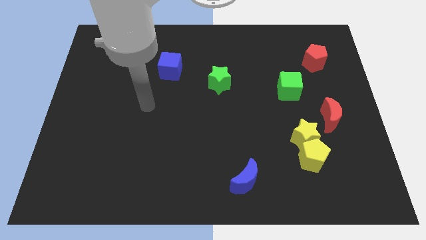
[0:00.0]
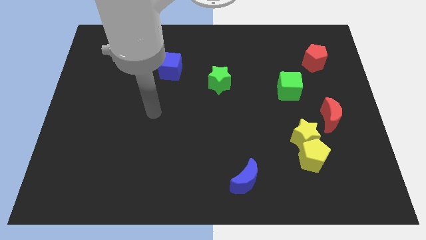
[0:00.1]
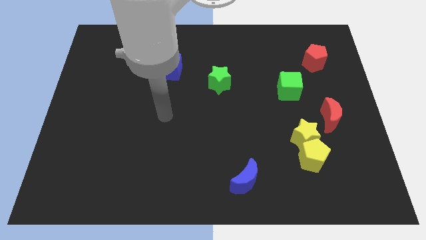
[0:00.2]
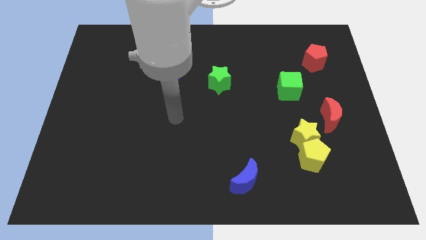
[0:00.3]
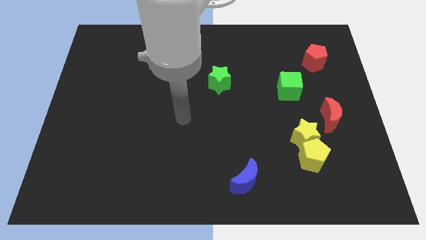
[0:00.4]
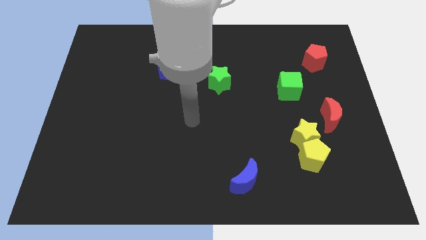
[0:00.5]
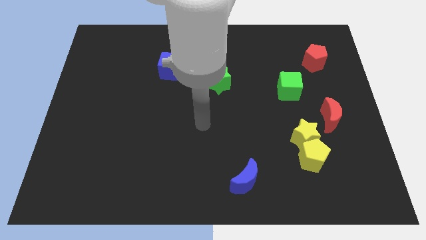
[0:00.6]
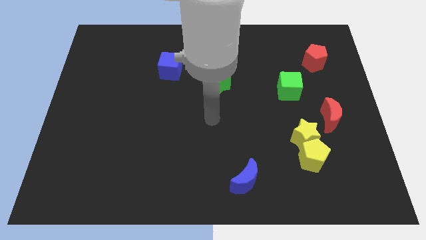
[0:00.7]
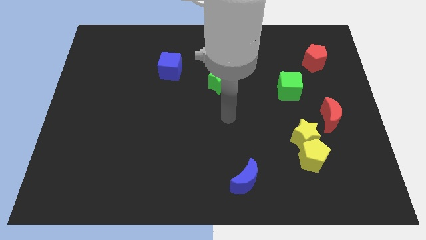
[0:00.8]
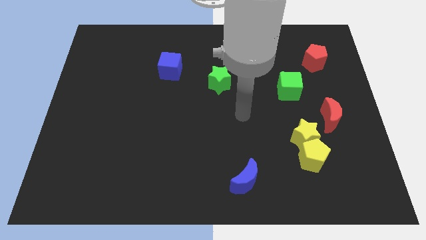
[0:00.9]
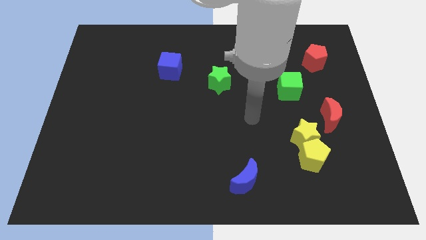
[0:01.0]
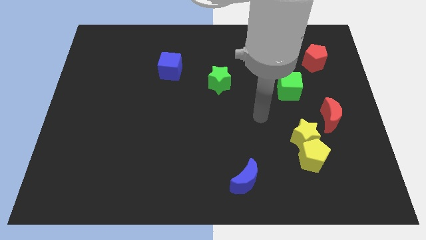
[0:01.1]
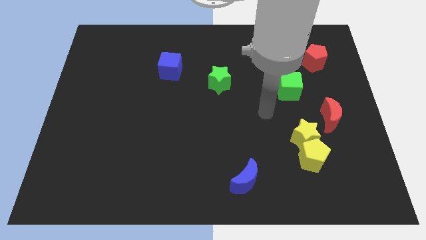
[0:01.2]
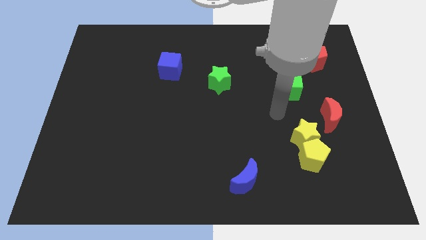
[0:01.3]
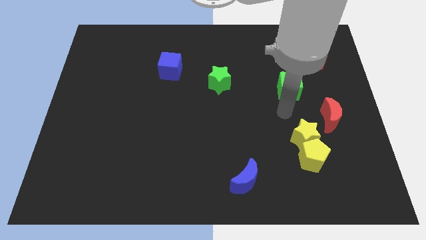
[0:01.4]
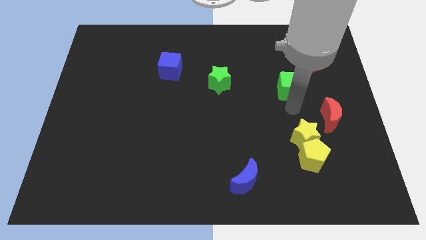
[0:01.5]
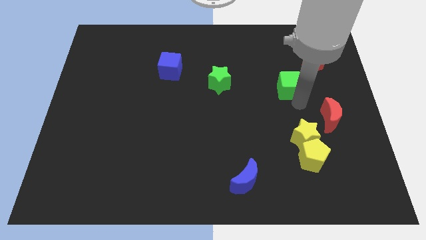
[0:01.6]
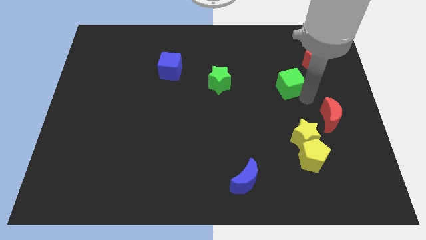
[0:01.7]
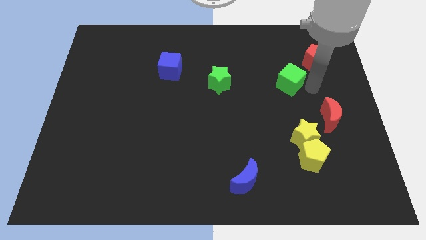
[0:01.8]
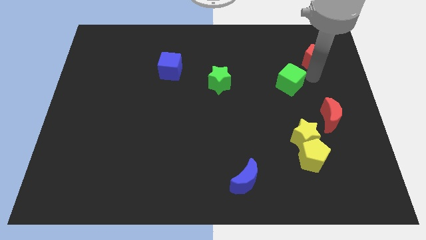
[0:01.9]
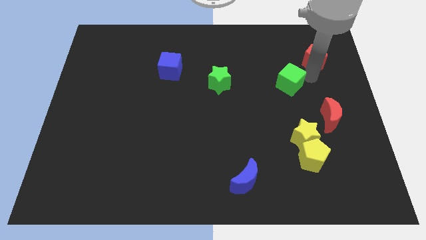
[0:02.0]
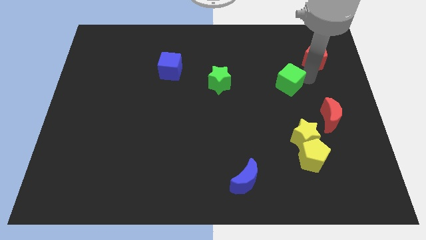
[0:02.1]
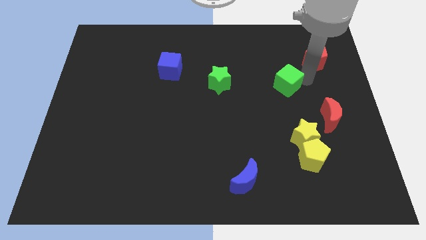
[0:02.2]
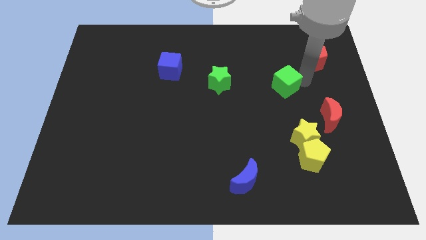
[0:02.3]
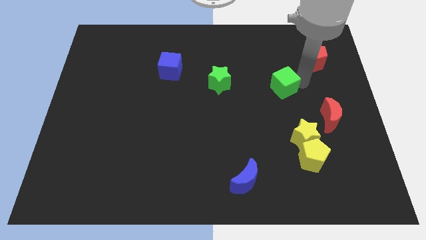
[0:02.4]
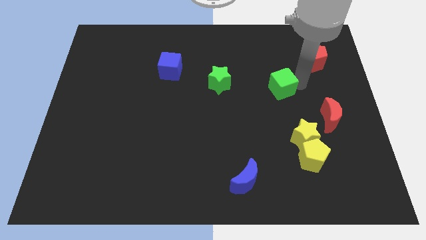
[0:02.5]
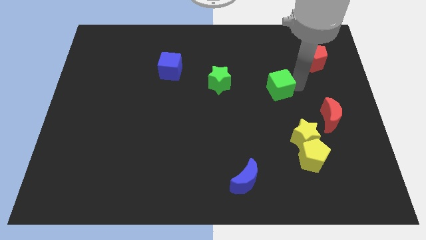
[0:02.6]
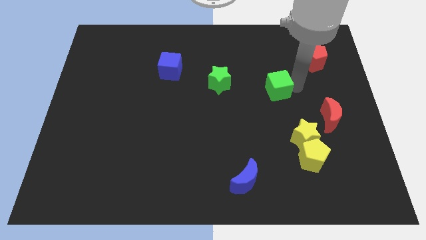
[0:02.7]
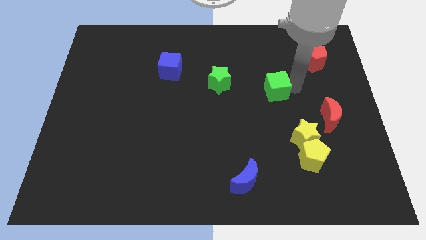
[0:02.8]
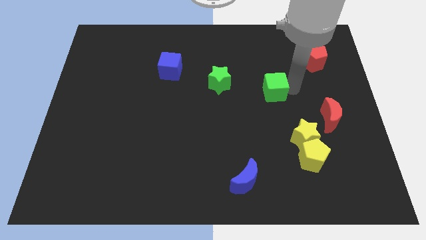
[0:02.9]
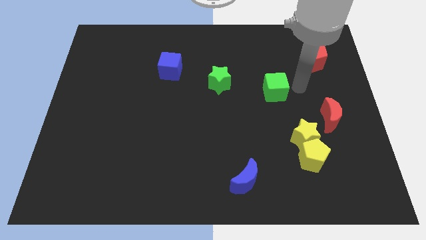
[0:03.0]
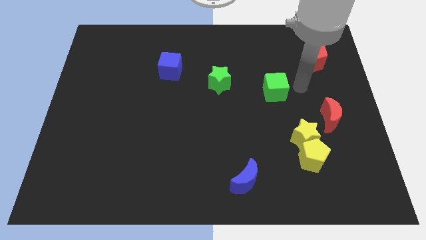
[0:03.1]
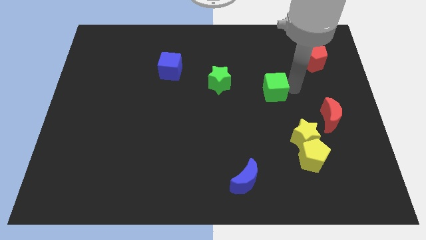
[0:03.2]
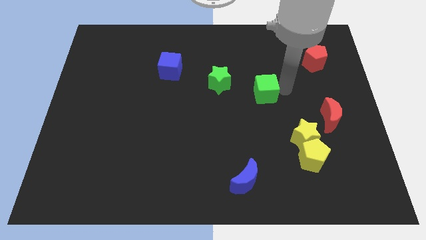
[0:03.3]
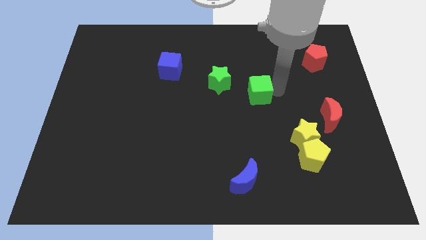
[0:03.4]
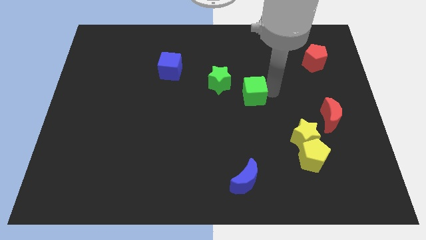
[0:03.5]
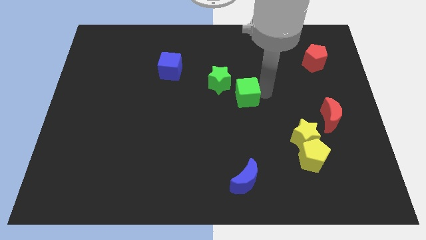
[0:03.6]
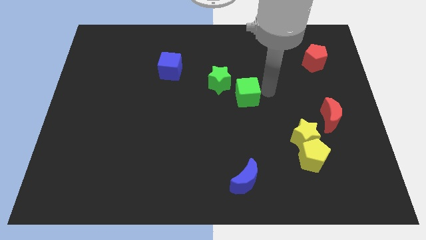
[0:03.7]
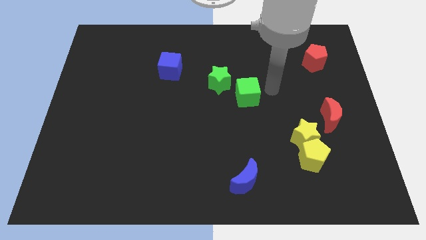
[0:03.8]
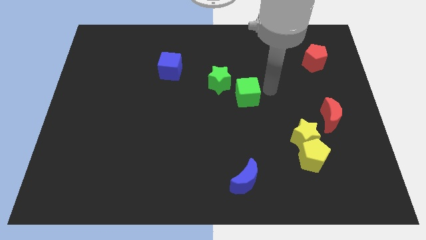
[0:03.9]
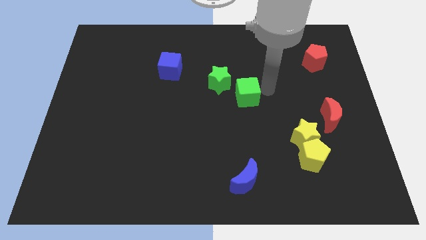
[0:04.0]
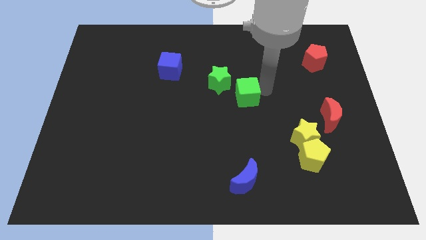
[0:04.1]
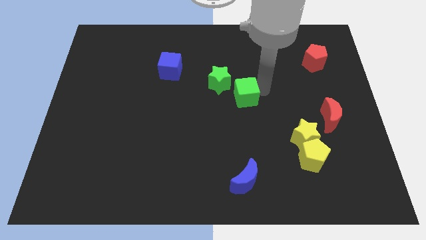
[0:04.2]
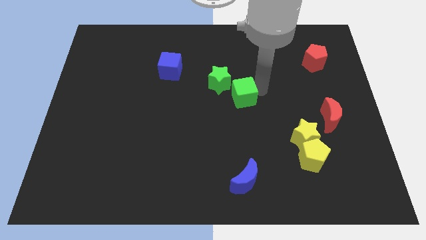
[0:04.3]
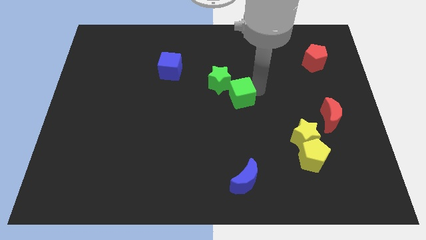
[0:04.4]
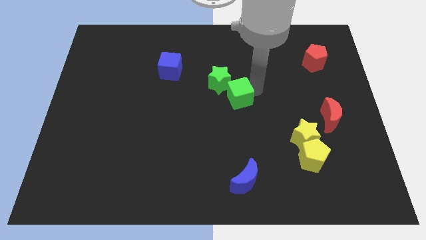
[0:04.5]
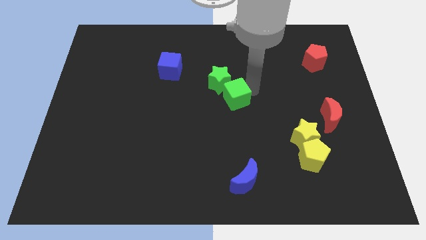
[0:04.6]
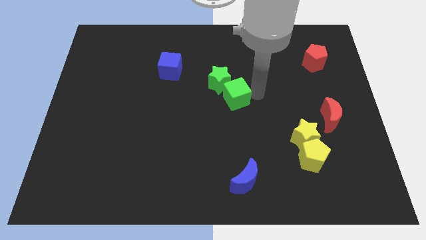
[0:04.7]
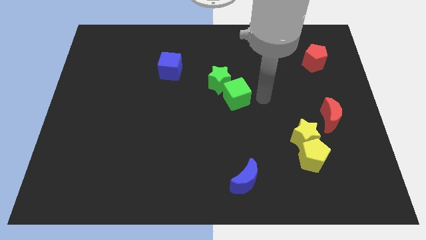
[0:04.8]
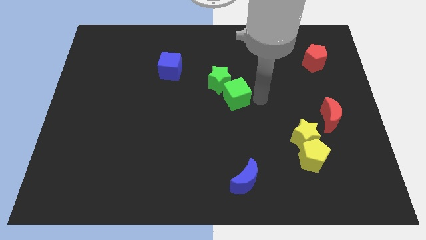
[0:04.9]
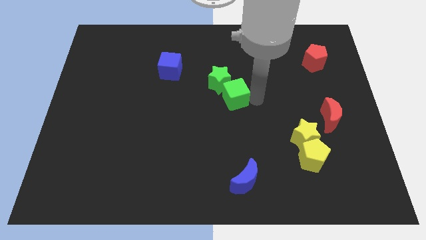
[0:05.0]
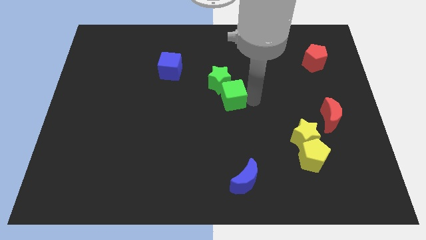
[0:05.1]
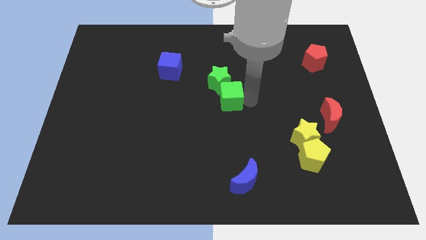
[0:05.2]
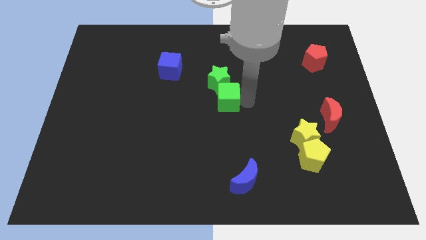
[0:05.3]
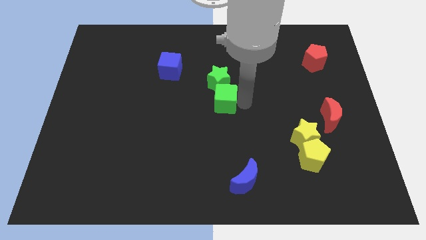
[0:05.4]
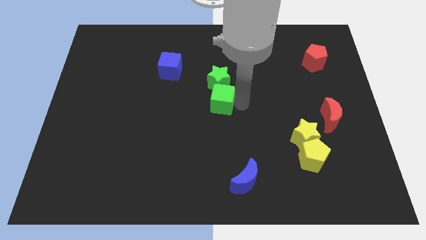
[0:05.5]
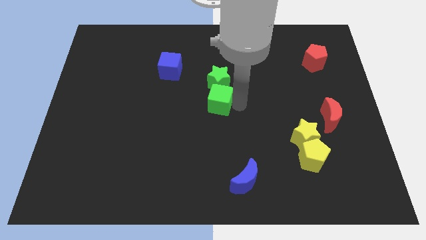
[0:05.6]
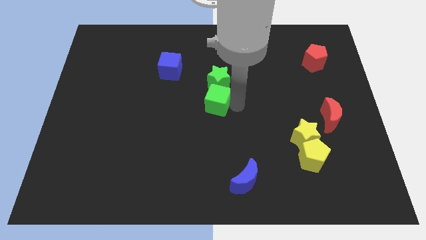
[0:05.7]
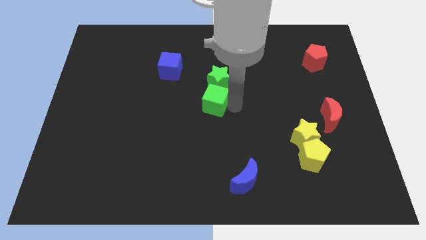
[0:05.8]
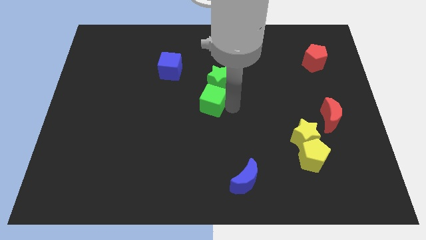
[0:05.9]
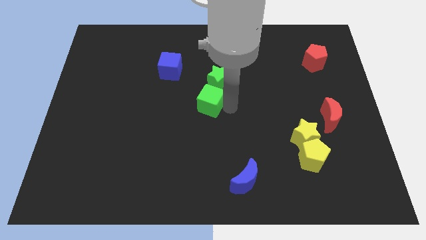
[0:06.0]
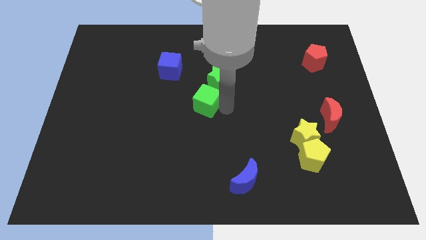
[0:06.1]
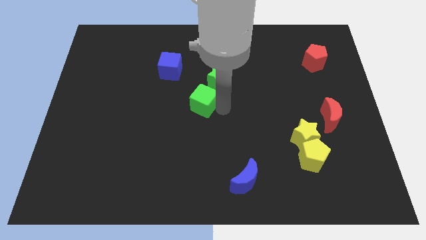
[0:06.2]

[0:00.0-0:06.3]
slide the green cube left

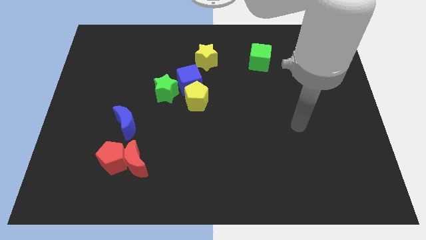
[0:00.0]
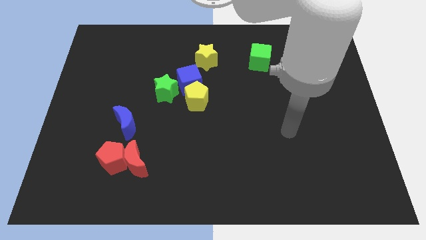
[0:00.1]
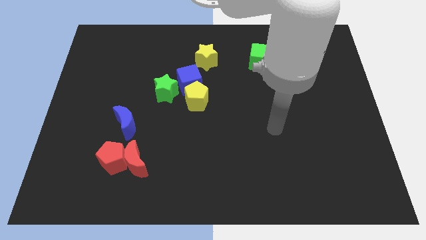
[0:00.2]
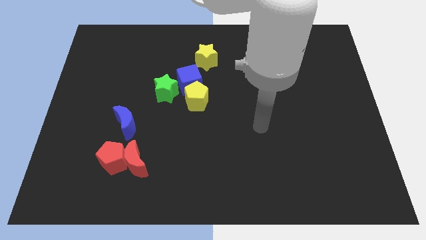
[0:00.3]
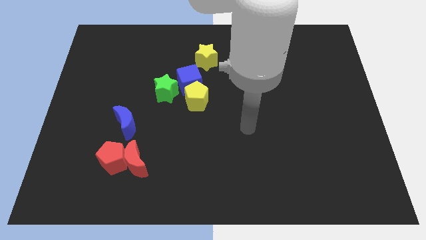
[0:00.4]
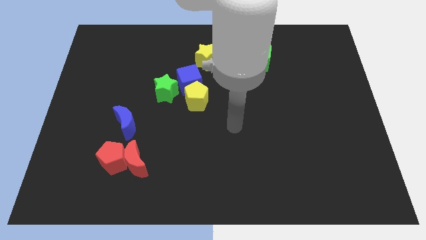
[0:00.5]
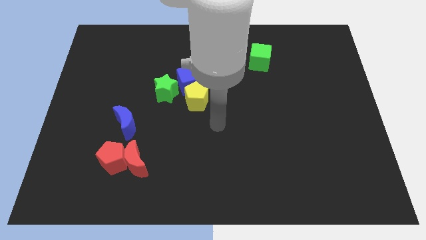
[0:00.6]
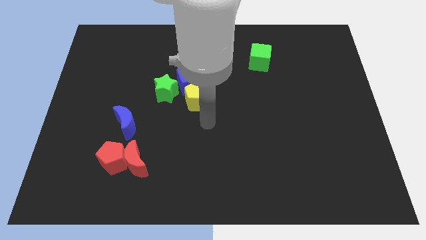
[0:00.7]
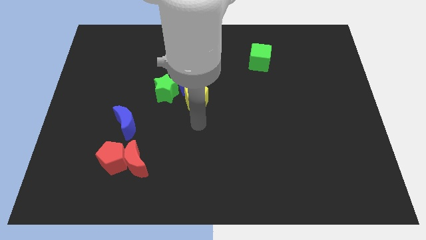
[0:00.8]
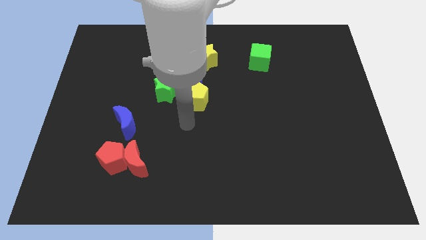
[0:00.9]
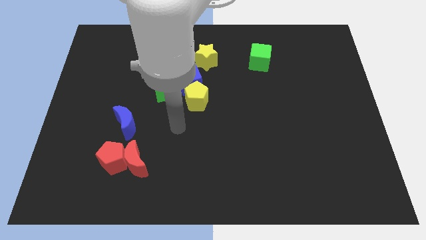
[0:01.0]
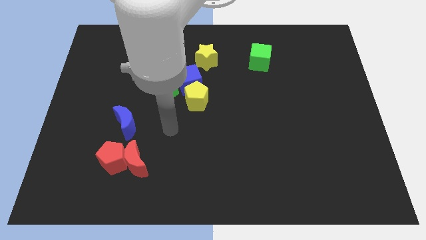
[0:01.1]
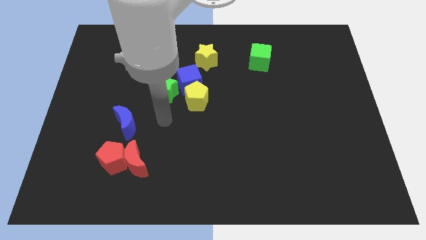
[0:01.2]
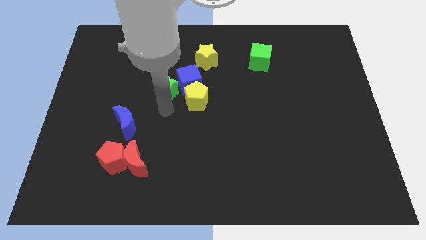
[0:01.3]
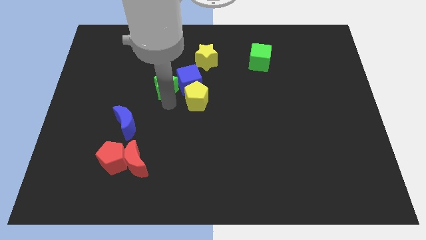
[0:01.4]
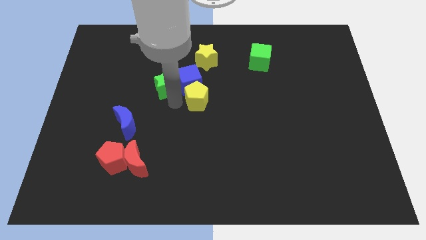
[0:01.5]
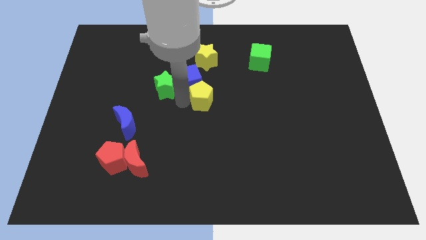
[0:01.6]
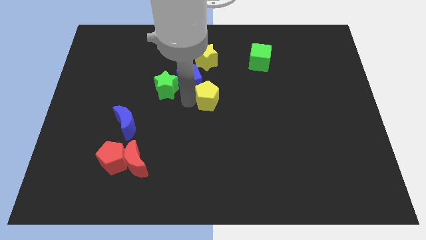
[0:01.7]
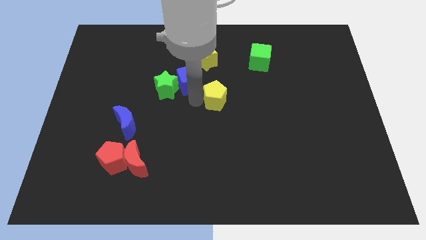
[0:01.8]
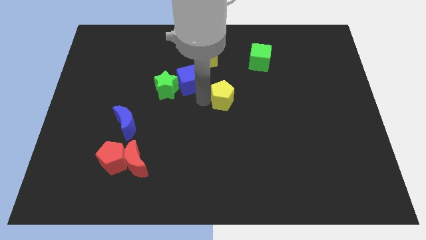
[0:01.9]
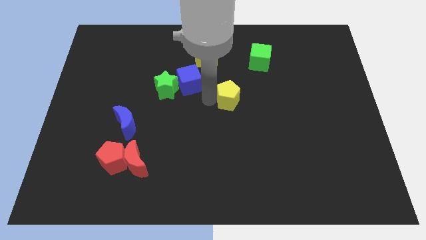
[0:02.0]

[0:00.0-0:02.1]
slightly push the yellow pentagon to the right
